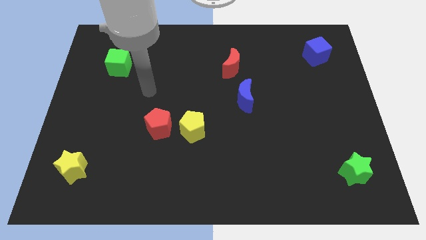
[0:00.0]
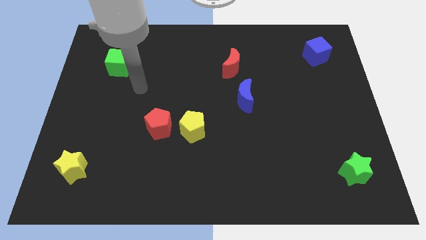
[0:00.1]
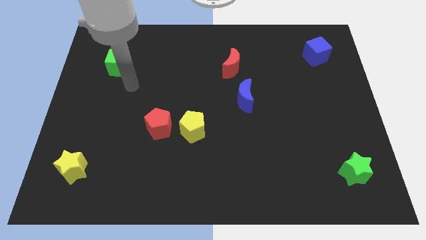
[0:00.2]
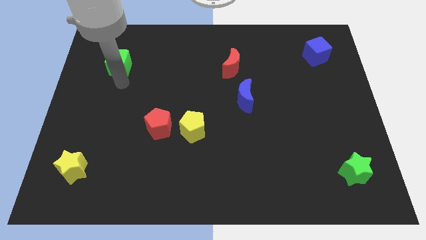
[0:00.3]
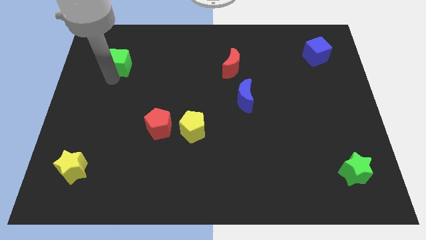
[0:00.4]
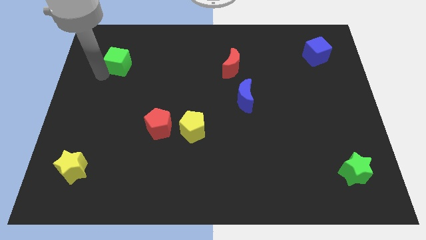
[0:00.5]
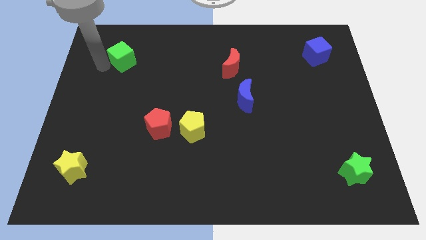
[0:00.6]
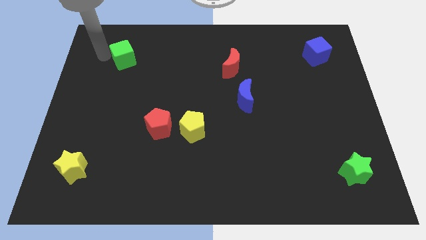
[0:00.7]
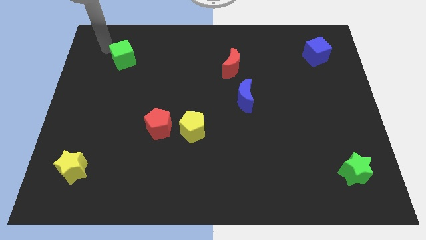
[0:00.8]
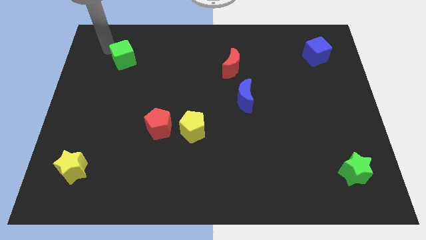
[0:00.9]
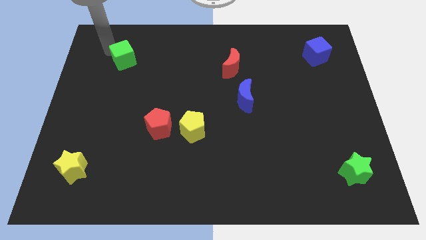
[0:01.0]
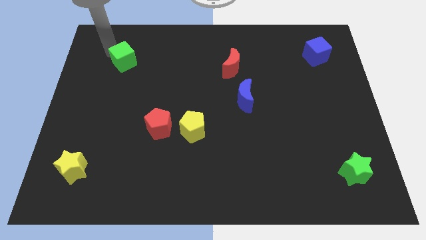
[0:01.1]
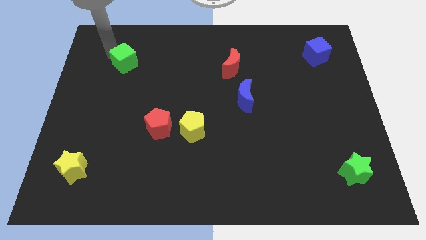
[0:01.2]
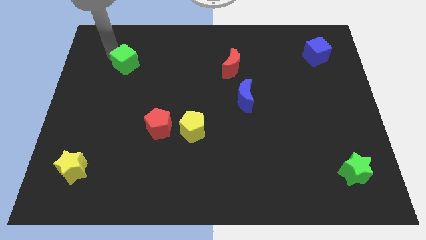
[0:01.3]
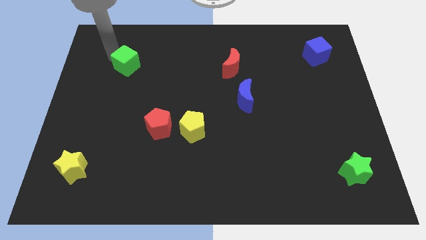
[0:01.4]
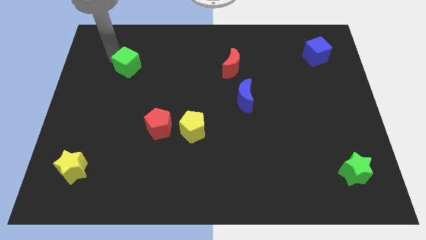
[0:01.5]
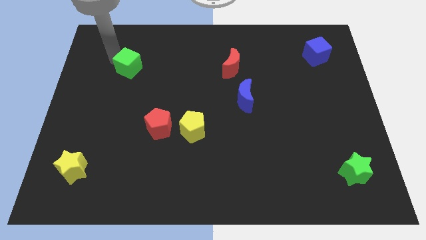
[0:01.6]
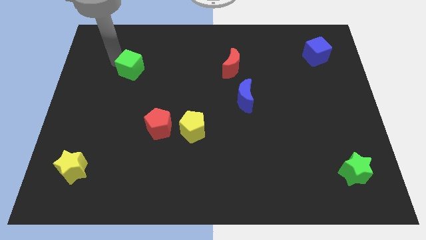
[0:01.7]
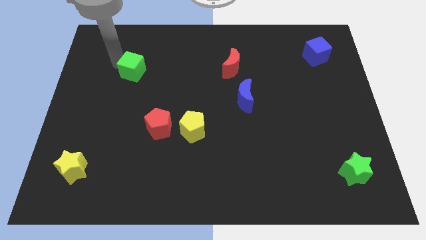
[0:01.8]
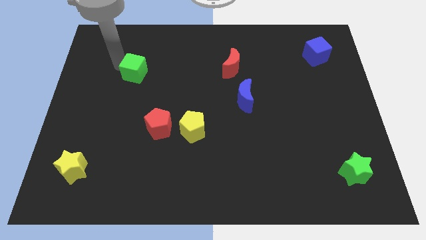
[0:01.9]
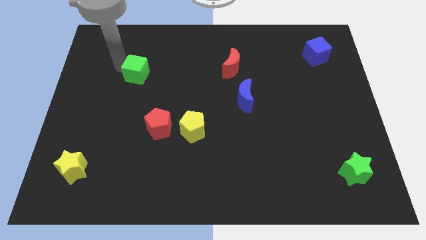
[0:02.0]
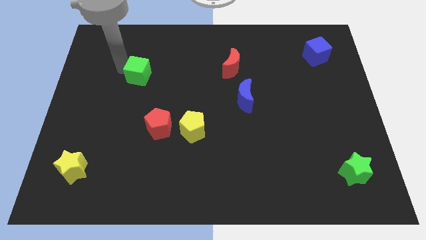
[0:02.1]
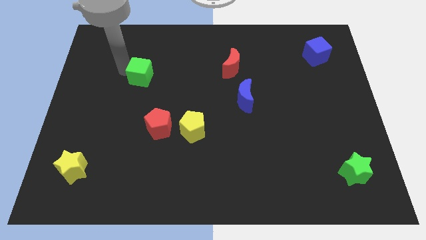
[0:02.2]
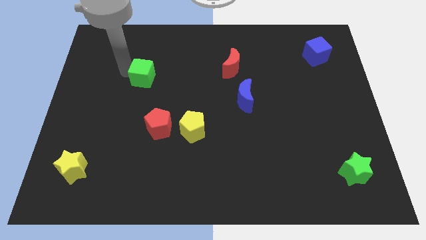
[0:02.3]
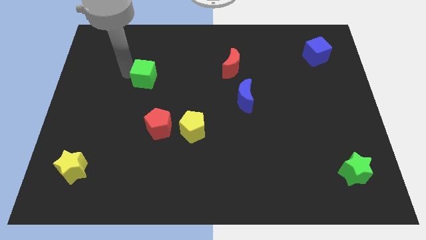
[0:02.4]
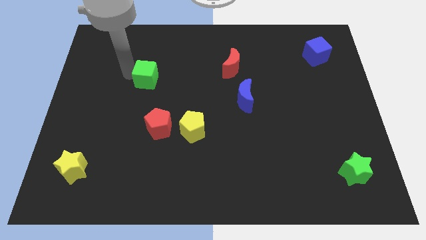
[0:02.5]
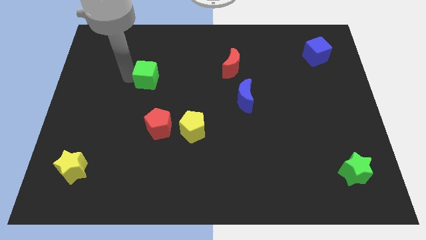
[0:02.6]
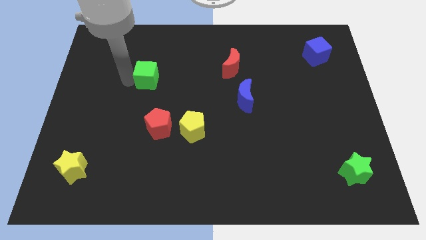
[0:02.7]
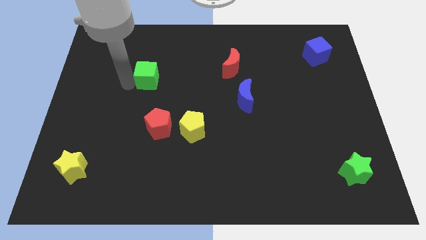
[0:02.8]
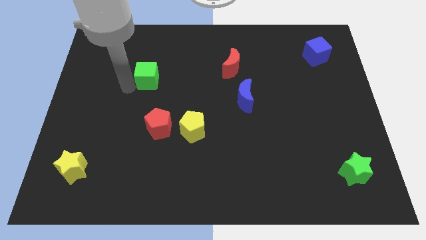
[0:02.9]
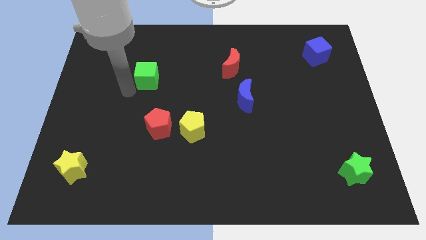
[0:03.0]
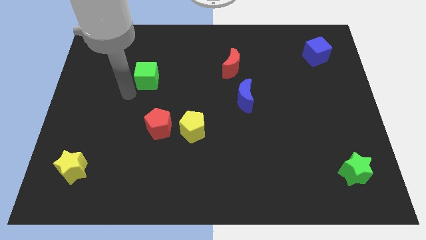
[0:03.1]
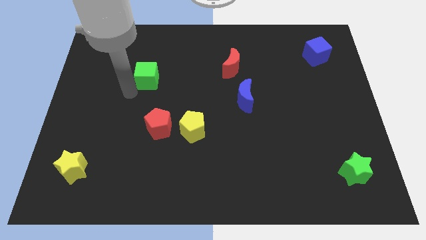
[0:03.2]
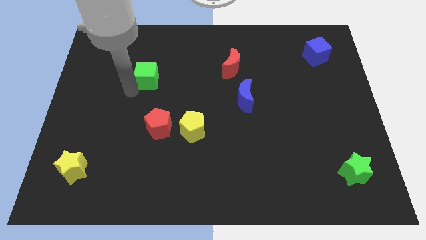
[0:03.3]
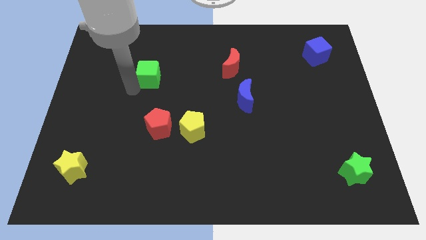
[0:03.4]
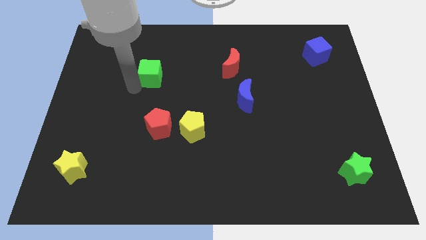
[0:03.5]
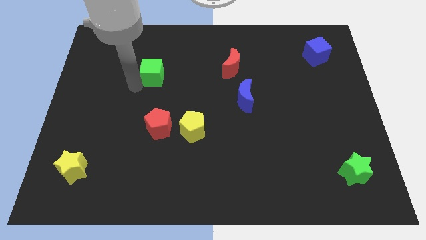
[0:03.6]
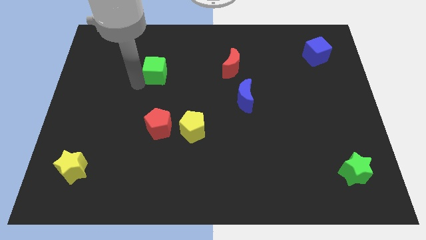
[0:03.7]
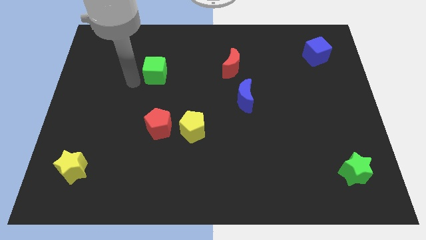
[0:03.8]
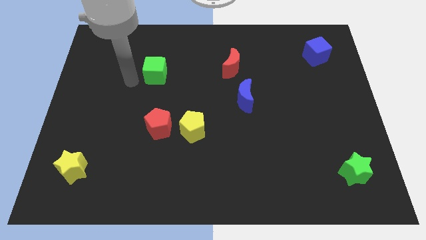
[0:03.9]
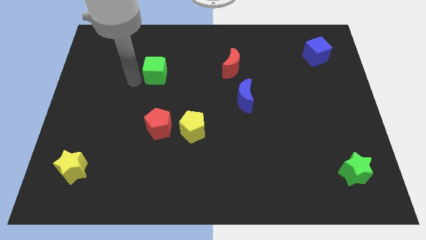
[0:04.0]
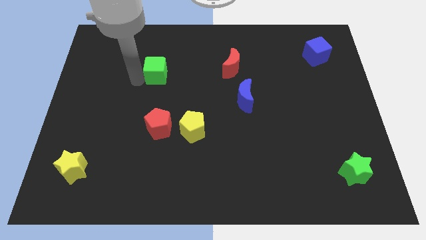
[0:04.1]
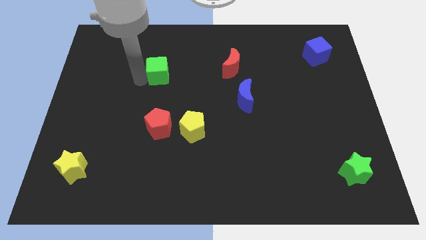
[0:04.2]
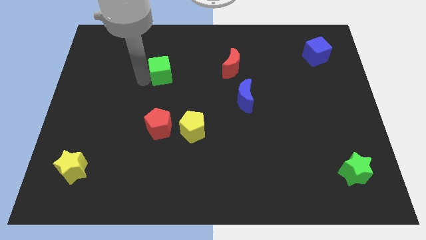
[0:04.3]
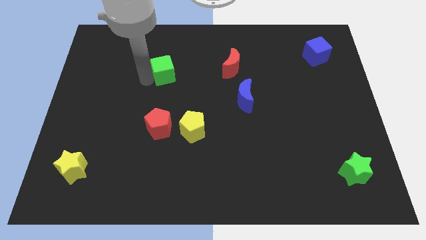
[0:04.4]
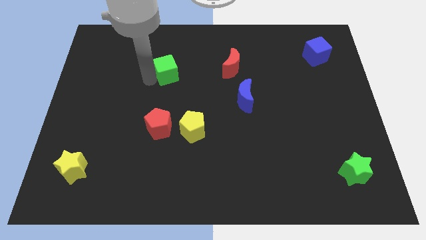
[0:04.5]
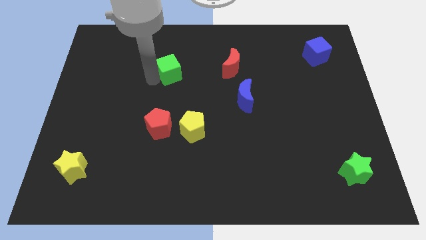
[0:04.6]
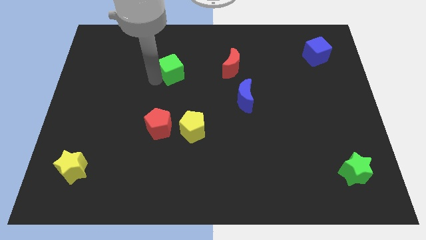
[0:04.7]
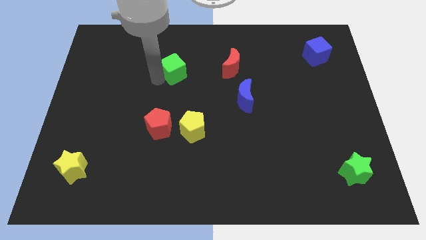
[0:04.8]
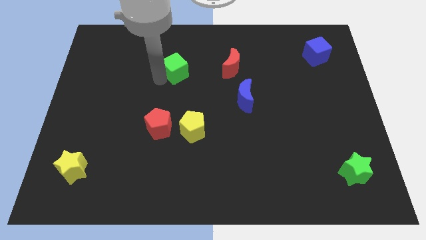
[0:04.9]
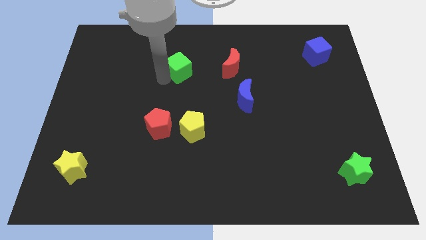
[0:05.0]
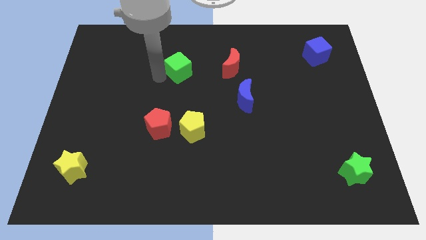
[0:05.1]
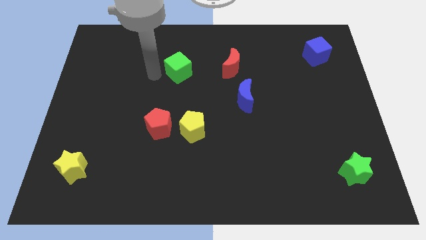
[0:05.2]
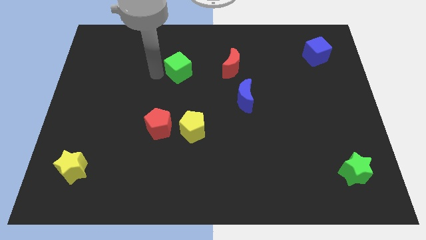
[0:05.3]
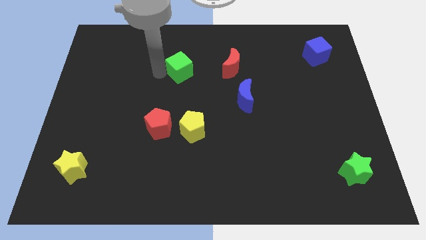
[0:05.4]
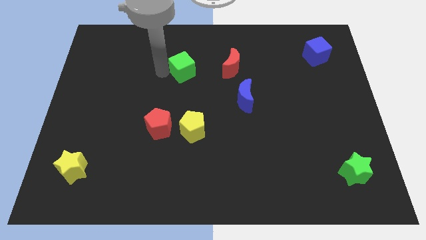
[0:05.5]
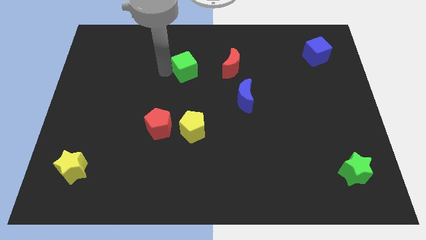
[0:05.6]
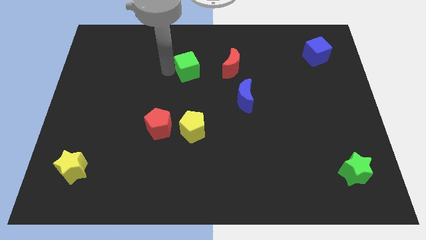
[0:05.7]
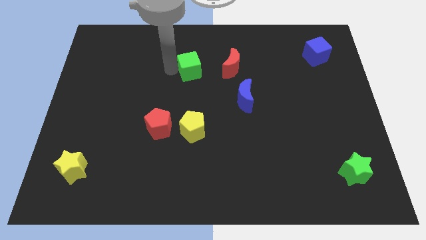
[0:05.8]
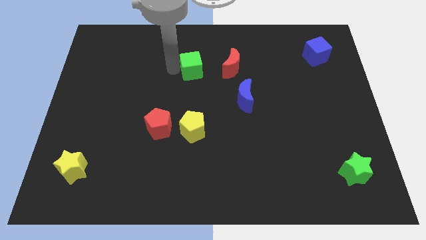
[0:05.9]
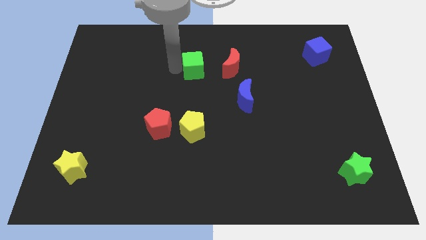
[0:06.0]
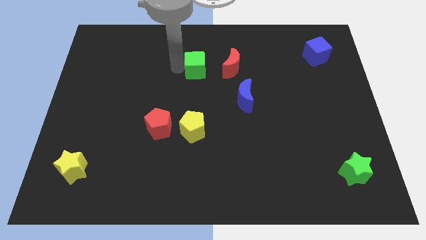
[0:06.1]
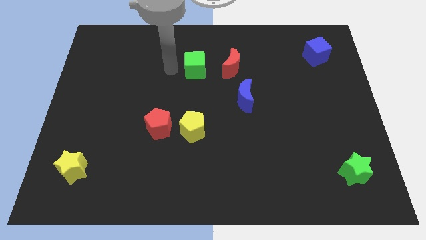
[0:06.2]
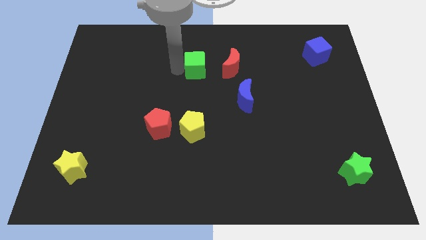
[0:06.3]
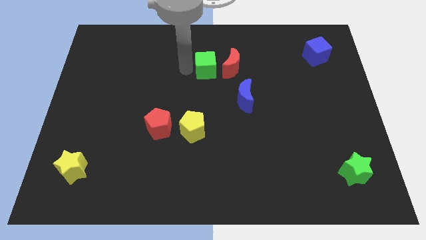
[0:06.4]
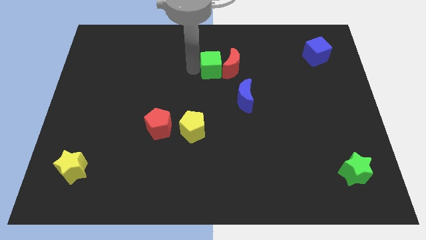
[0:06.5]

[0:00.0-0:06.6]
slide the green cube to the red moon

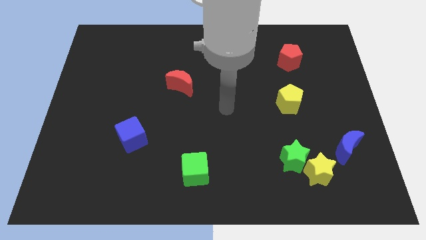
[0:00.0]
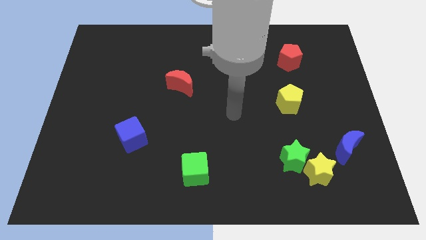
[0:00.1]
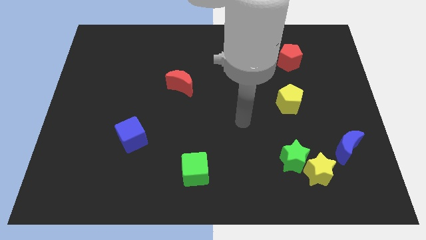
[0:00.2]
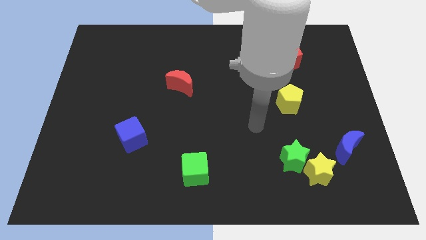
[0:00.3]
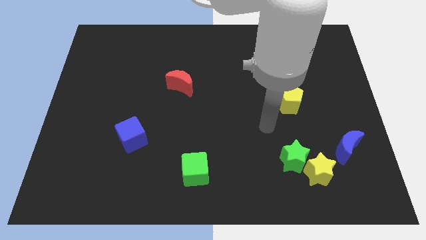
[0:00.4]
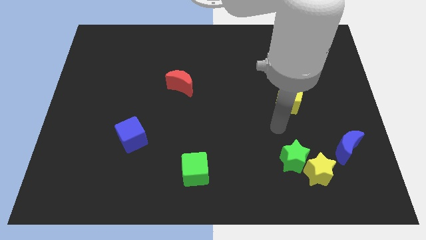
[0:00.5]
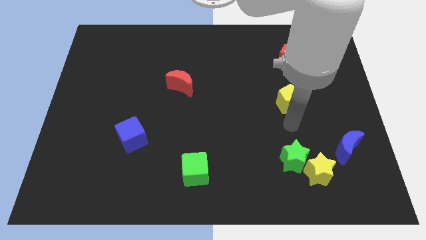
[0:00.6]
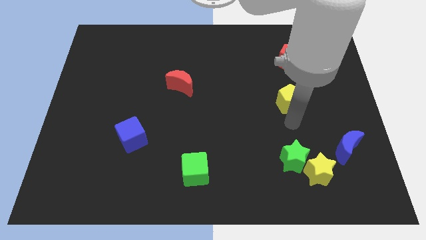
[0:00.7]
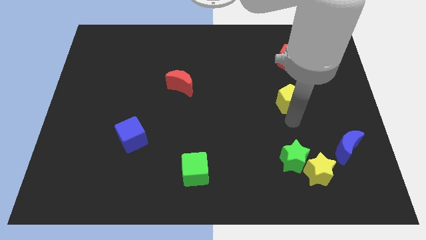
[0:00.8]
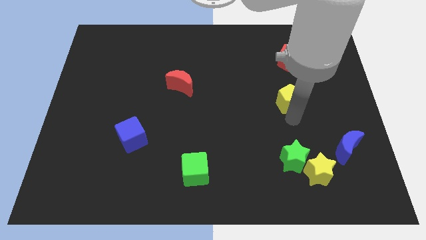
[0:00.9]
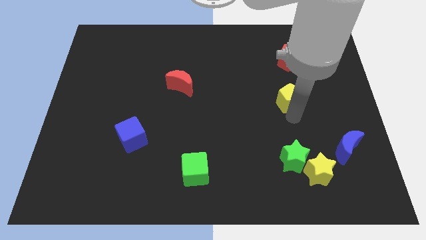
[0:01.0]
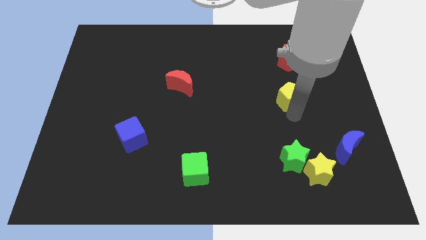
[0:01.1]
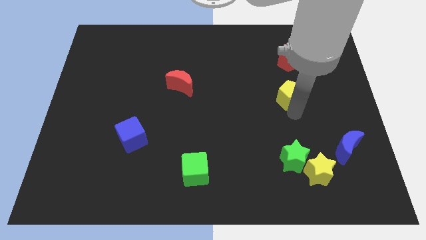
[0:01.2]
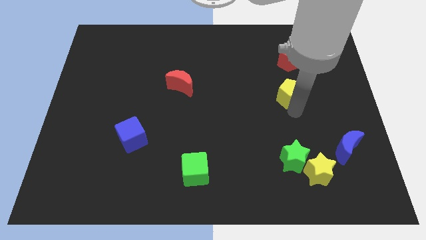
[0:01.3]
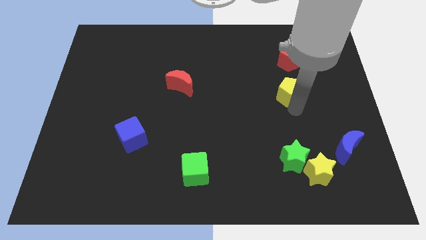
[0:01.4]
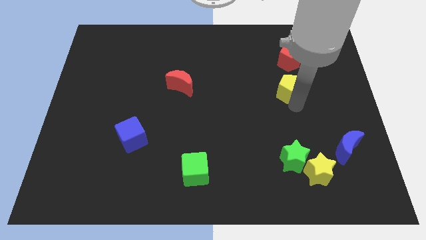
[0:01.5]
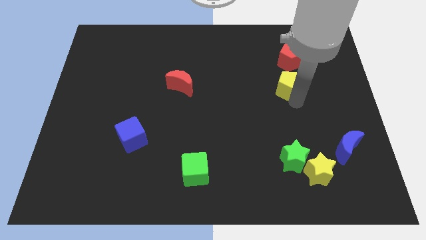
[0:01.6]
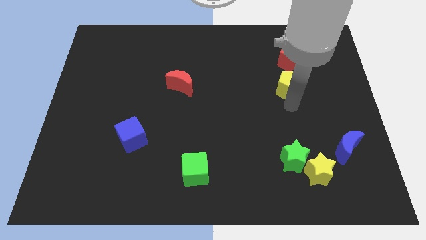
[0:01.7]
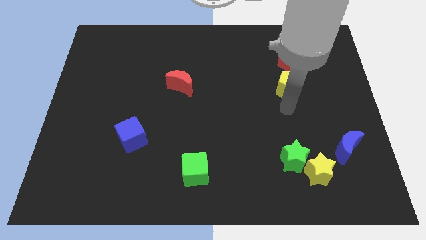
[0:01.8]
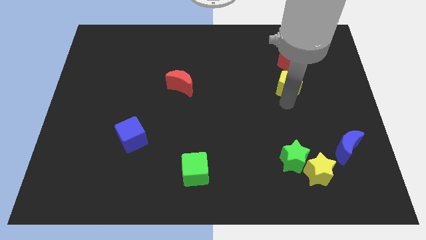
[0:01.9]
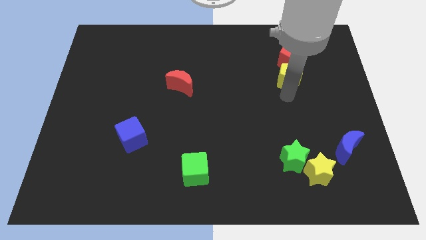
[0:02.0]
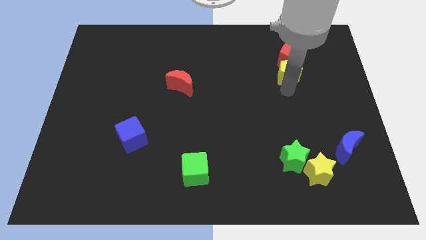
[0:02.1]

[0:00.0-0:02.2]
put the yellow pentagon to the red pentagon
